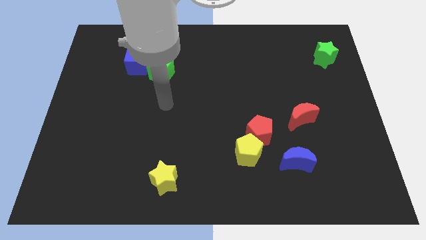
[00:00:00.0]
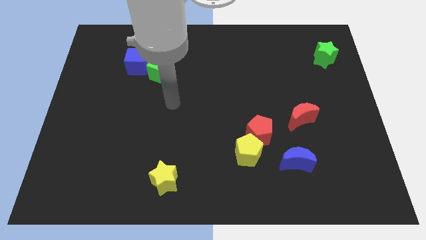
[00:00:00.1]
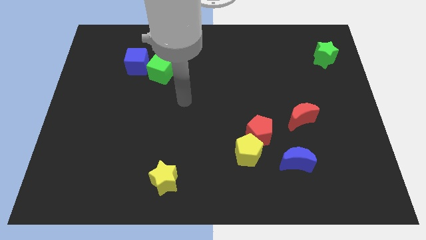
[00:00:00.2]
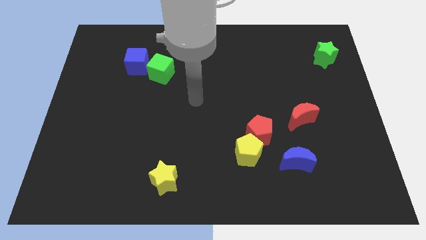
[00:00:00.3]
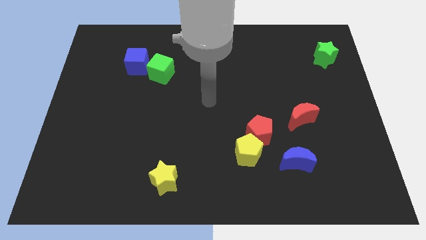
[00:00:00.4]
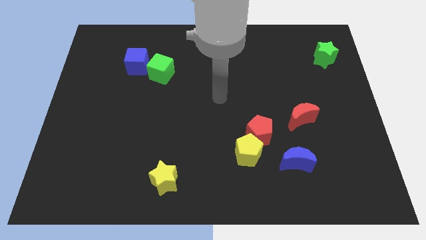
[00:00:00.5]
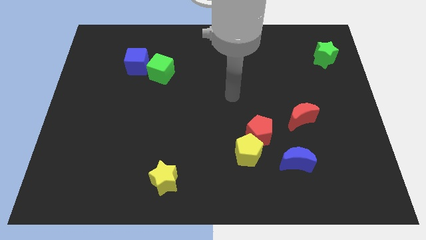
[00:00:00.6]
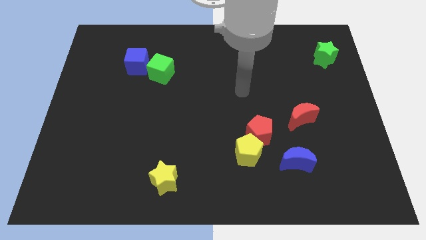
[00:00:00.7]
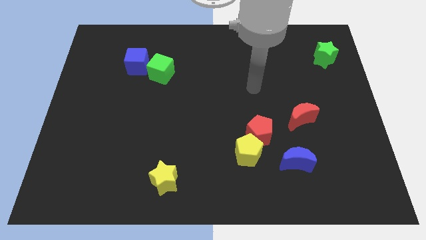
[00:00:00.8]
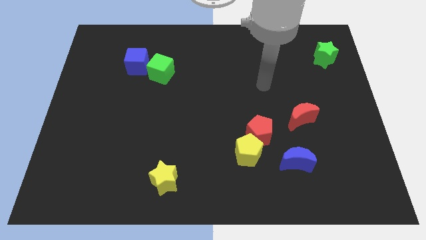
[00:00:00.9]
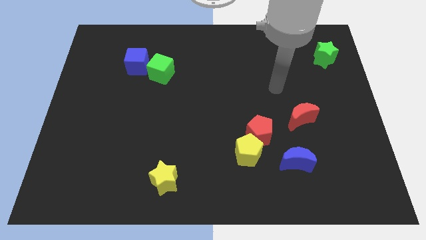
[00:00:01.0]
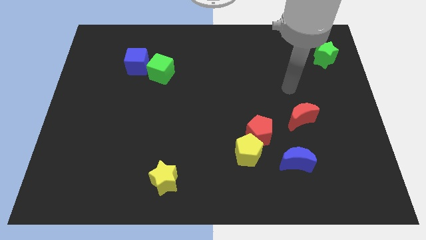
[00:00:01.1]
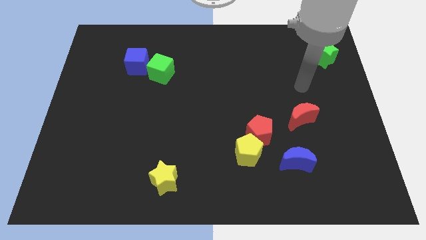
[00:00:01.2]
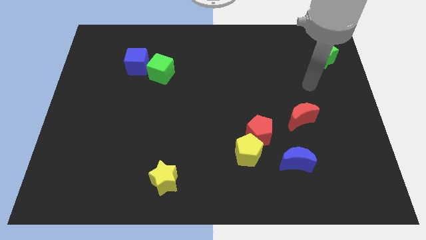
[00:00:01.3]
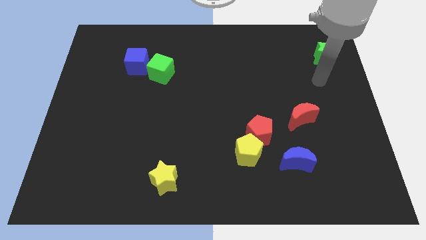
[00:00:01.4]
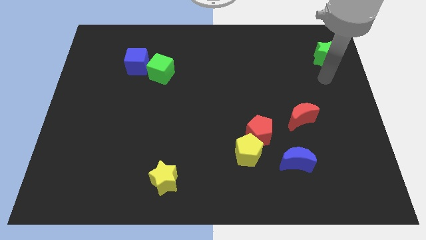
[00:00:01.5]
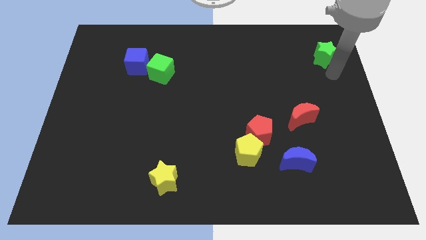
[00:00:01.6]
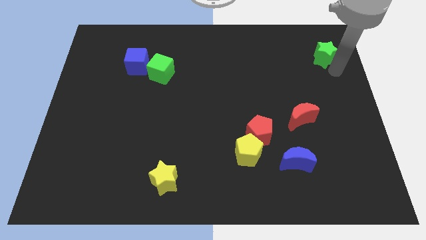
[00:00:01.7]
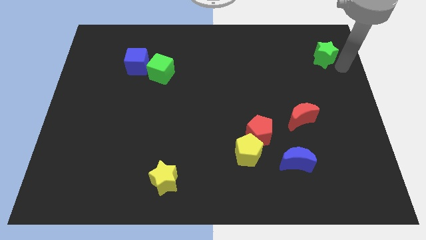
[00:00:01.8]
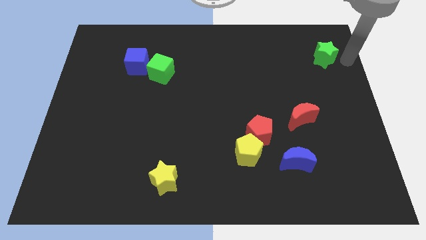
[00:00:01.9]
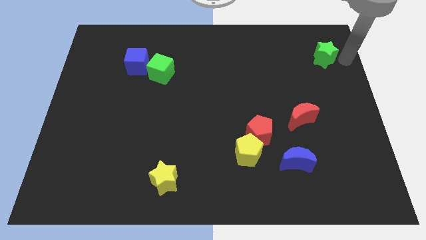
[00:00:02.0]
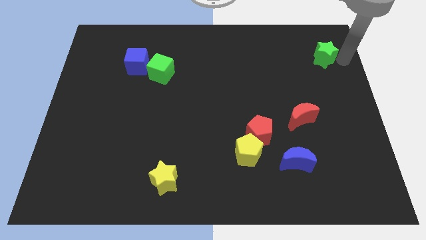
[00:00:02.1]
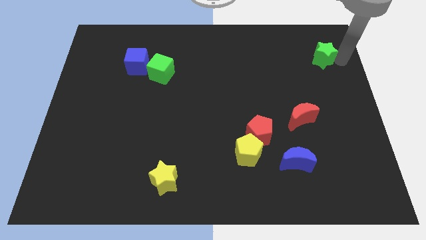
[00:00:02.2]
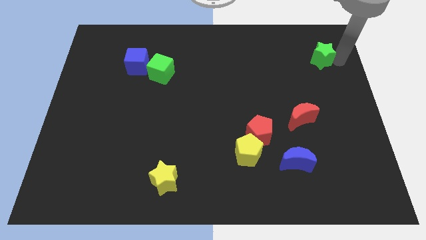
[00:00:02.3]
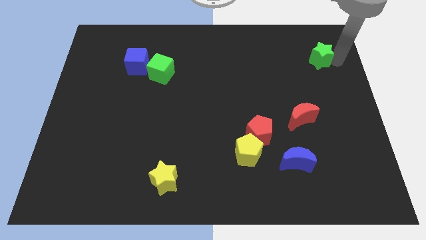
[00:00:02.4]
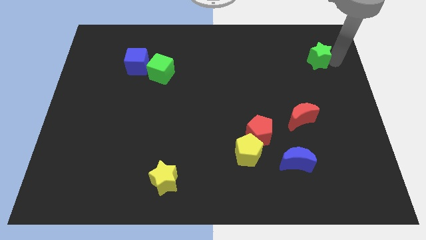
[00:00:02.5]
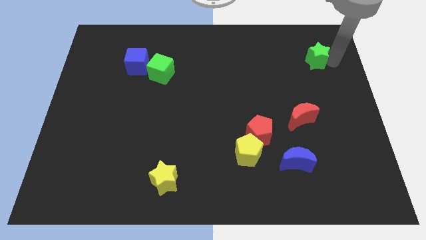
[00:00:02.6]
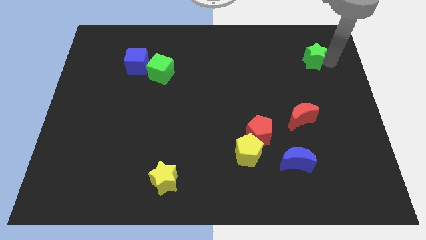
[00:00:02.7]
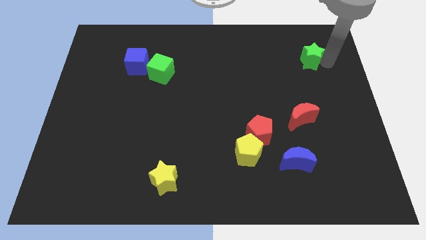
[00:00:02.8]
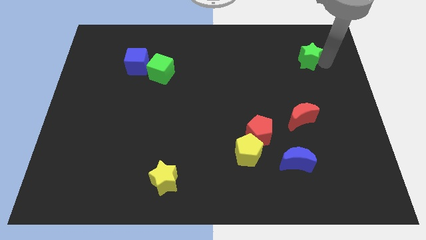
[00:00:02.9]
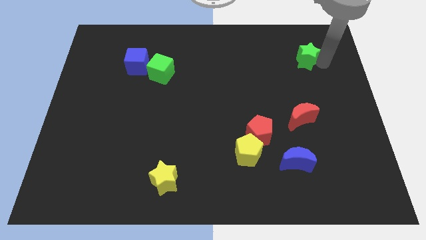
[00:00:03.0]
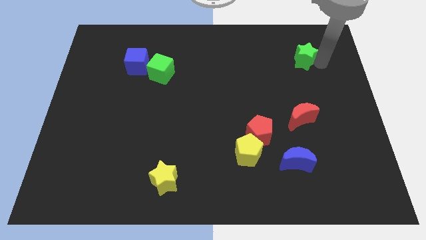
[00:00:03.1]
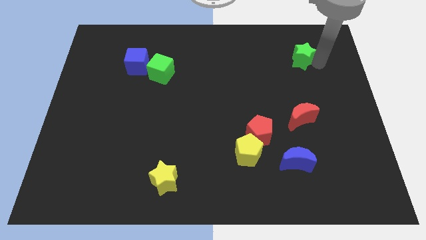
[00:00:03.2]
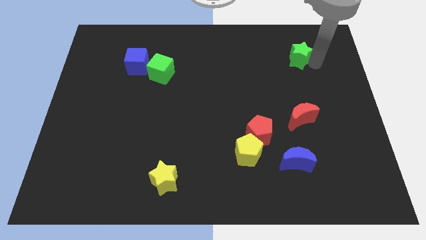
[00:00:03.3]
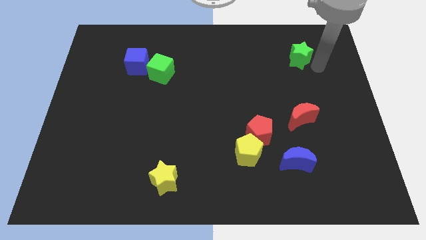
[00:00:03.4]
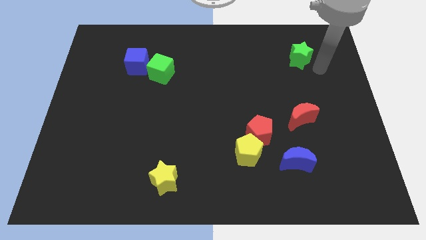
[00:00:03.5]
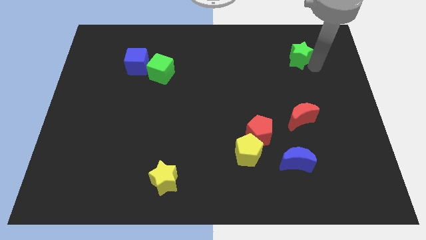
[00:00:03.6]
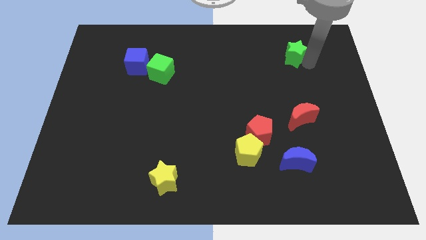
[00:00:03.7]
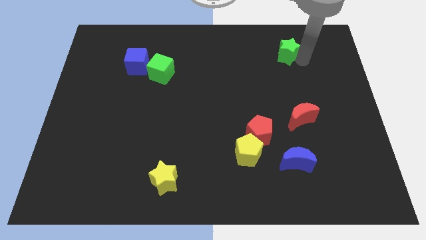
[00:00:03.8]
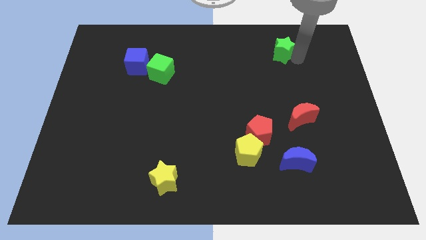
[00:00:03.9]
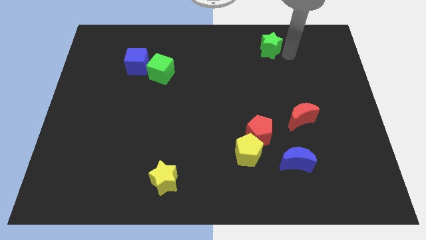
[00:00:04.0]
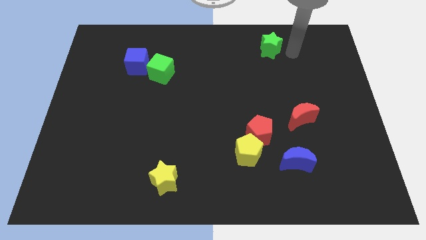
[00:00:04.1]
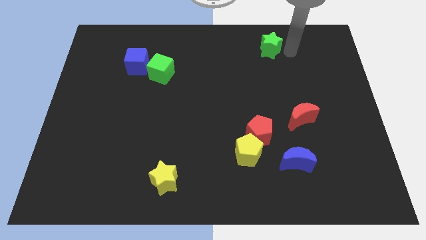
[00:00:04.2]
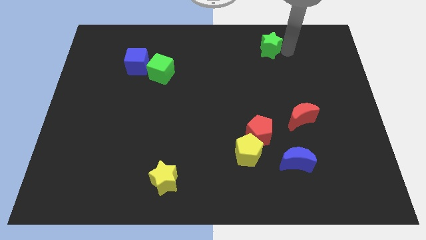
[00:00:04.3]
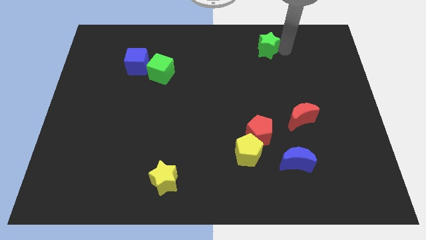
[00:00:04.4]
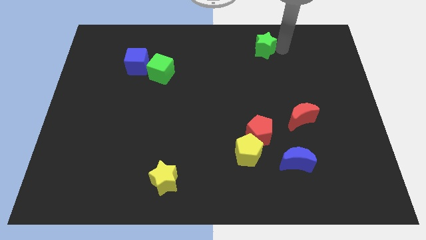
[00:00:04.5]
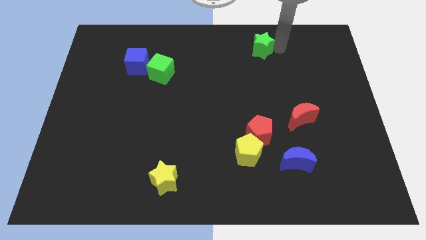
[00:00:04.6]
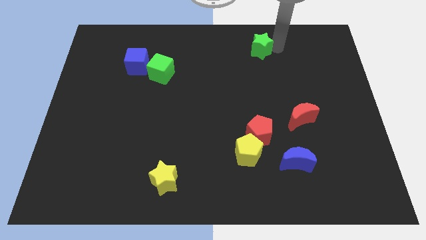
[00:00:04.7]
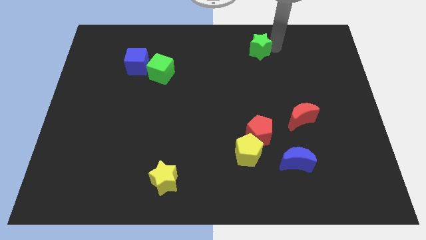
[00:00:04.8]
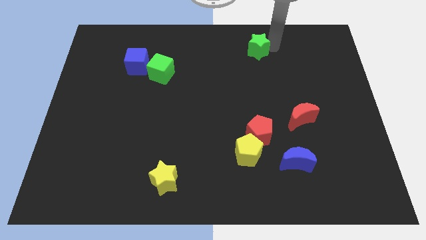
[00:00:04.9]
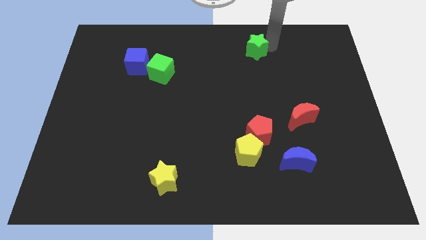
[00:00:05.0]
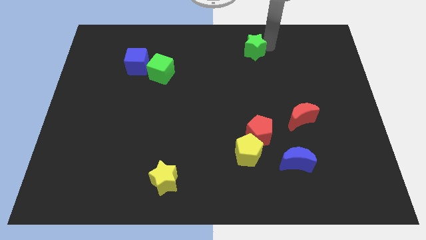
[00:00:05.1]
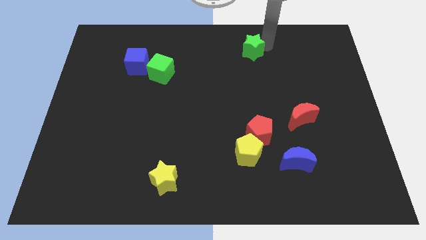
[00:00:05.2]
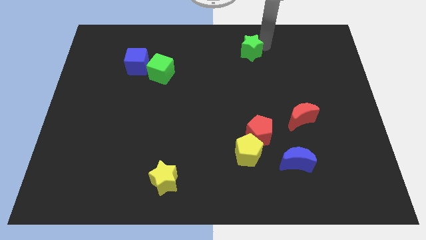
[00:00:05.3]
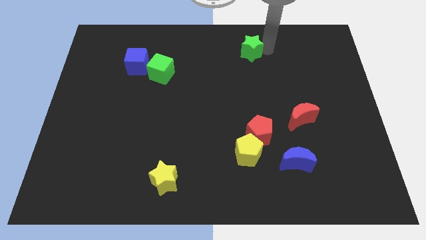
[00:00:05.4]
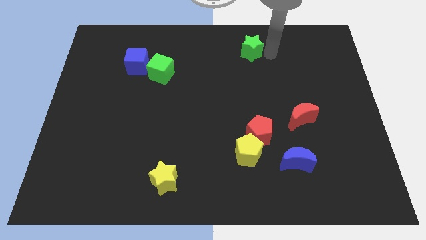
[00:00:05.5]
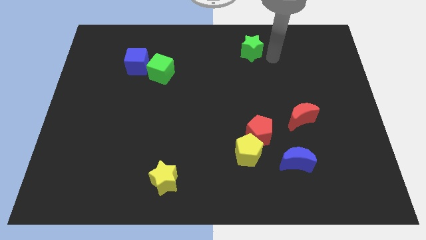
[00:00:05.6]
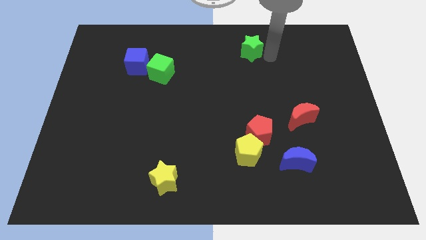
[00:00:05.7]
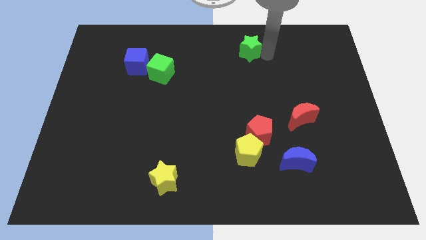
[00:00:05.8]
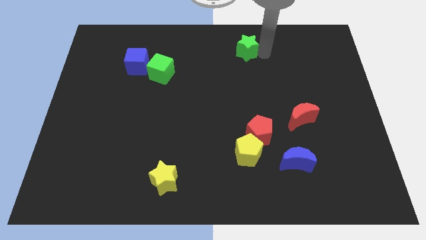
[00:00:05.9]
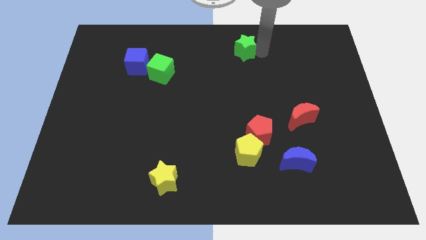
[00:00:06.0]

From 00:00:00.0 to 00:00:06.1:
push the green star to the top side
